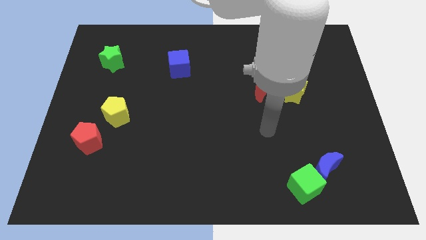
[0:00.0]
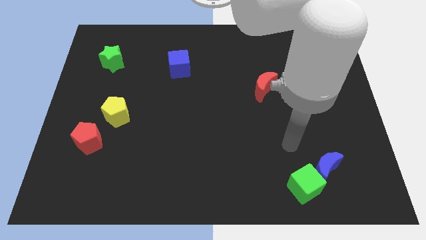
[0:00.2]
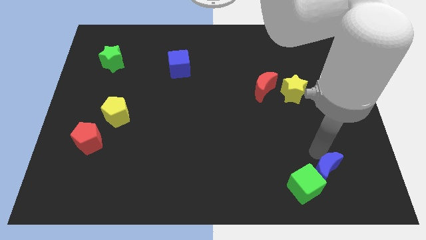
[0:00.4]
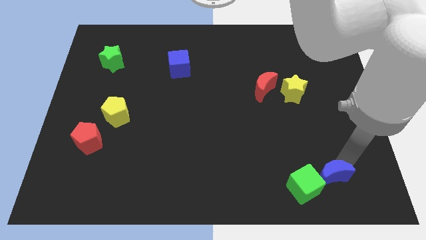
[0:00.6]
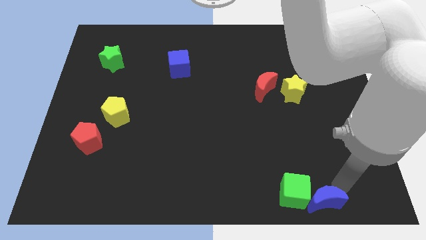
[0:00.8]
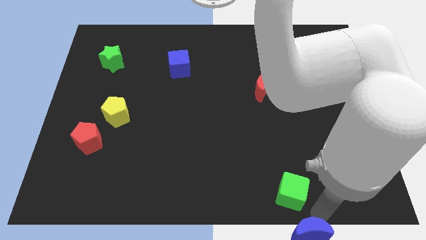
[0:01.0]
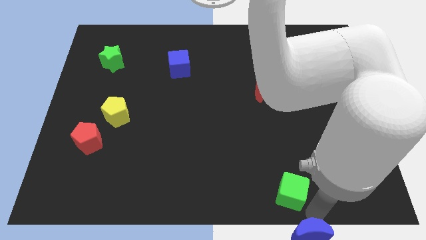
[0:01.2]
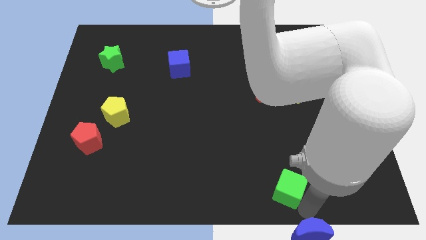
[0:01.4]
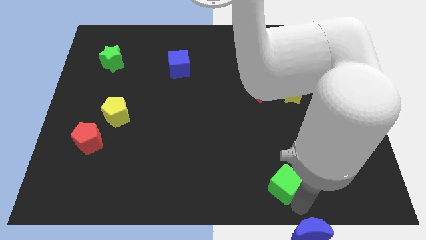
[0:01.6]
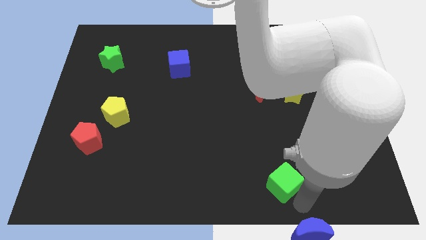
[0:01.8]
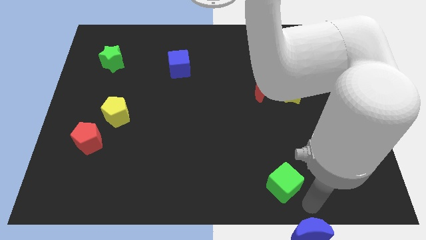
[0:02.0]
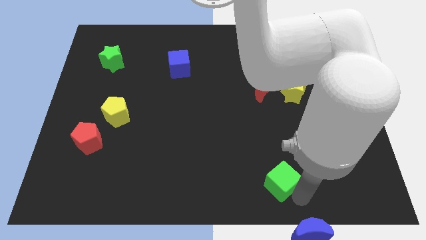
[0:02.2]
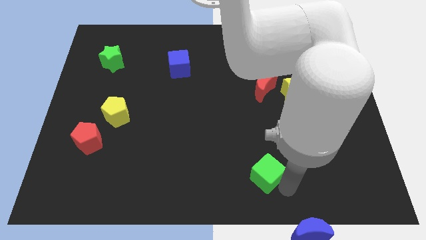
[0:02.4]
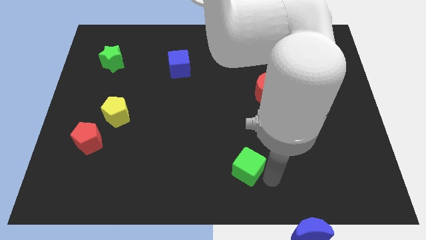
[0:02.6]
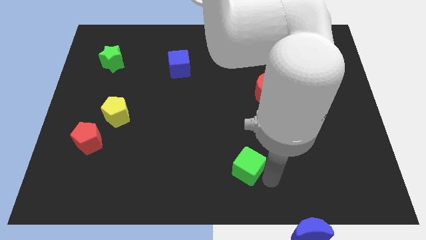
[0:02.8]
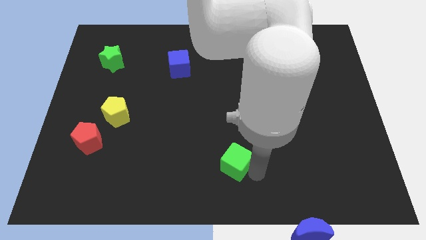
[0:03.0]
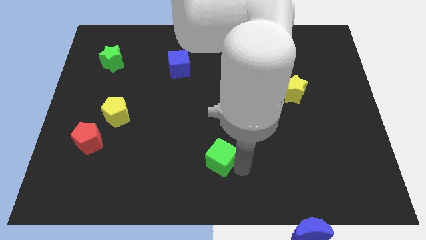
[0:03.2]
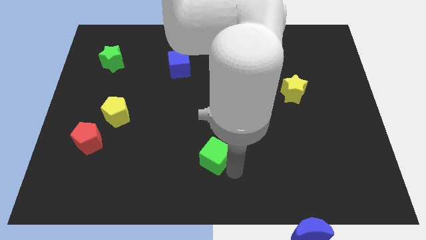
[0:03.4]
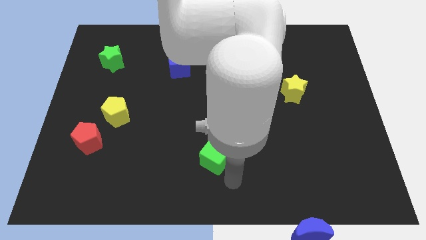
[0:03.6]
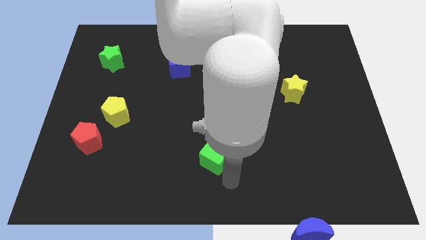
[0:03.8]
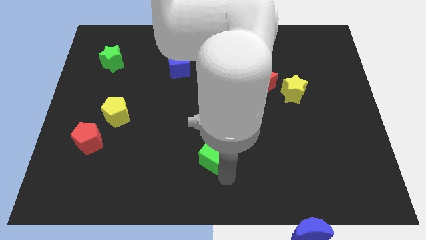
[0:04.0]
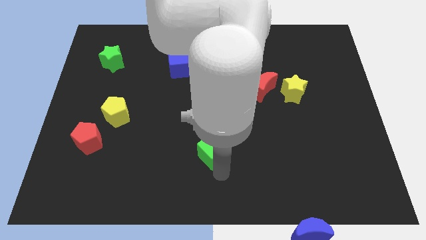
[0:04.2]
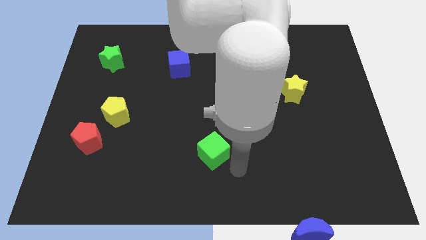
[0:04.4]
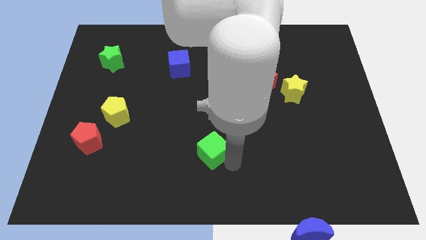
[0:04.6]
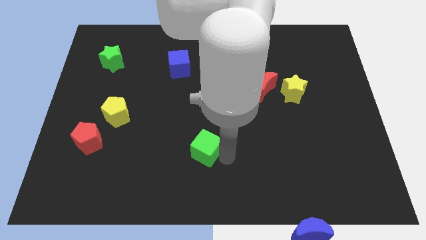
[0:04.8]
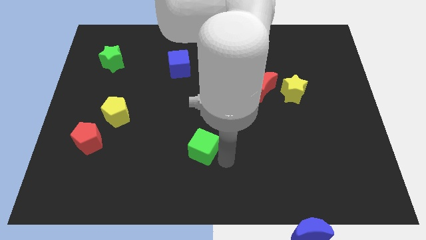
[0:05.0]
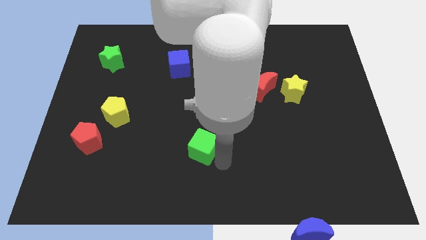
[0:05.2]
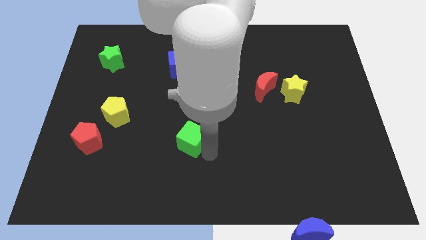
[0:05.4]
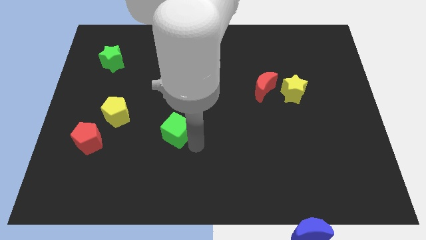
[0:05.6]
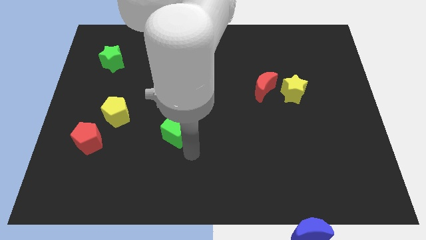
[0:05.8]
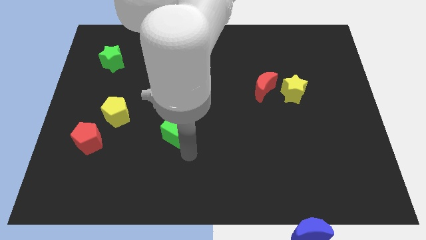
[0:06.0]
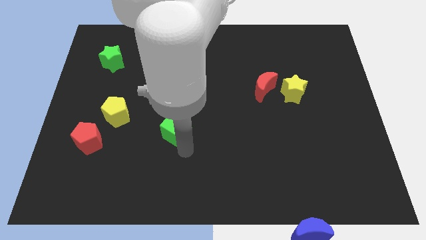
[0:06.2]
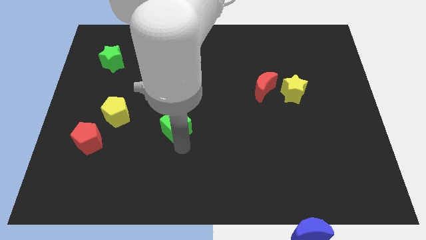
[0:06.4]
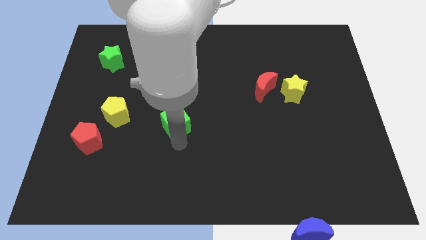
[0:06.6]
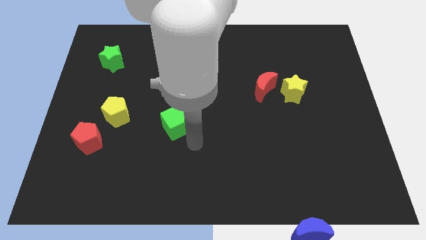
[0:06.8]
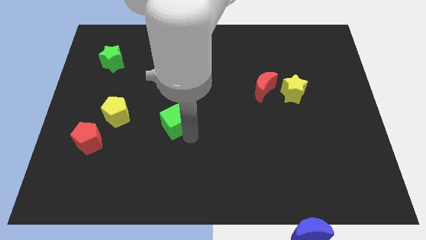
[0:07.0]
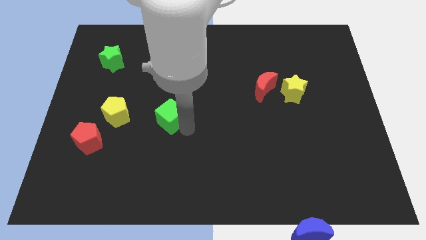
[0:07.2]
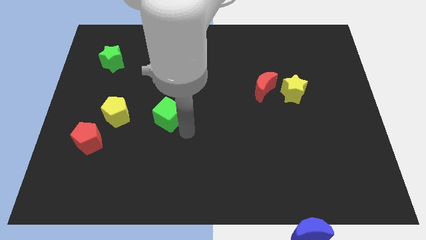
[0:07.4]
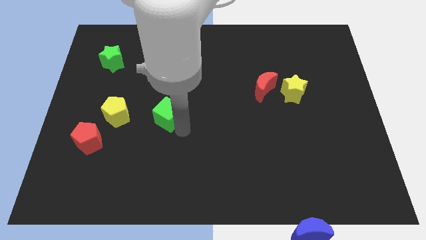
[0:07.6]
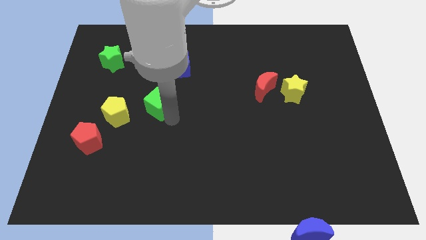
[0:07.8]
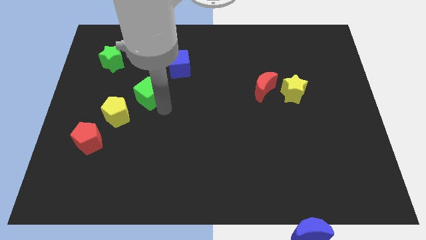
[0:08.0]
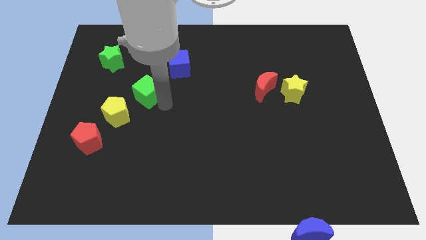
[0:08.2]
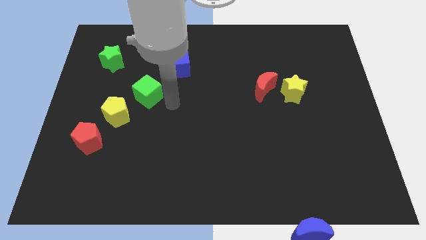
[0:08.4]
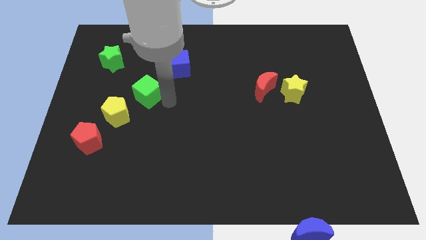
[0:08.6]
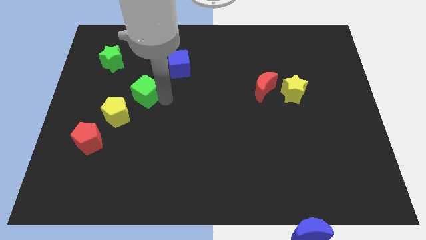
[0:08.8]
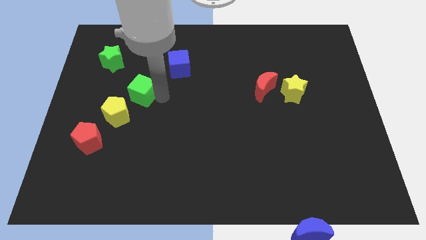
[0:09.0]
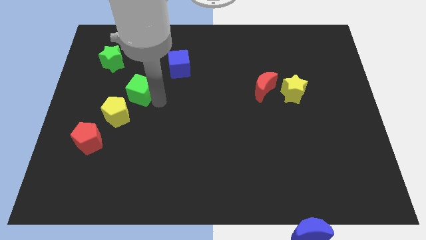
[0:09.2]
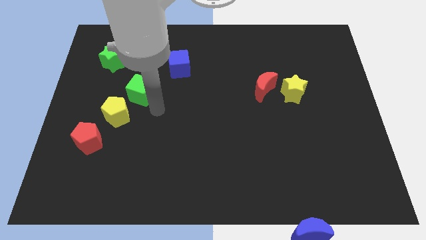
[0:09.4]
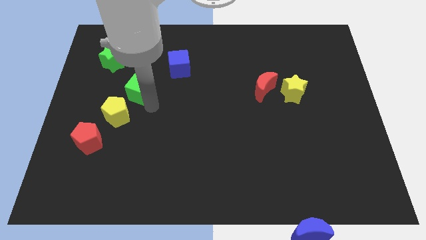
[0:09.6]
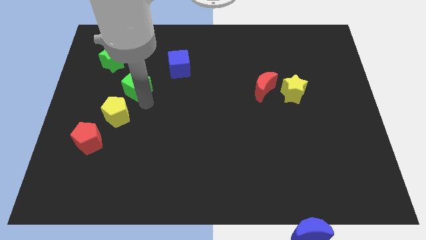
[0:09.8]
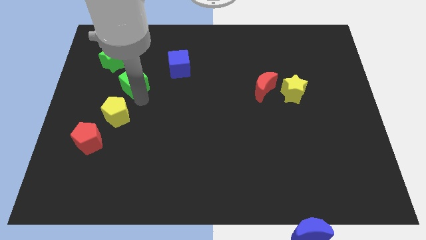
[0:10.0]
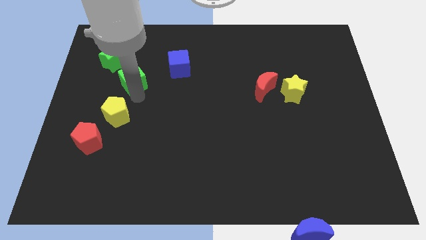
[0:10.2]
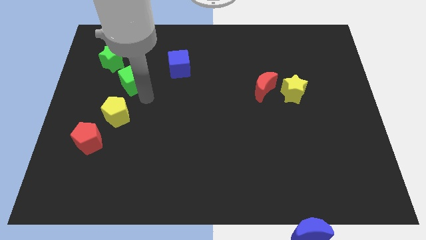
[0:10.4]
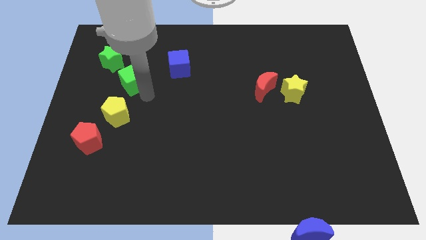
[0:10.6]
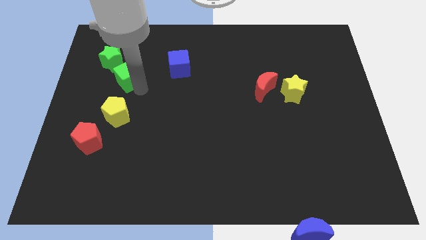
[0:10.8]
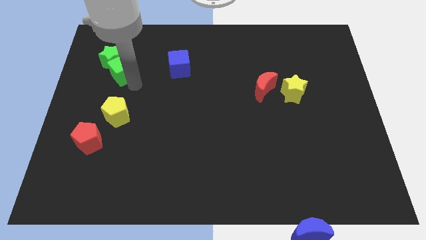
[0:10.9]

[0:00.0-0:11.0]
move the green cube close to the green star

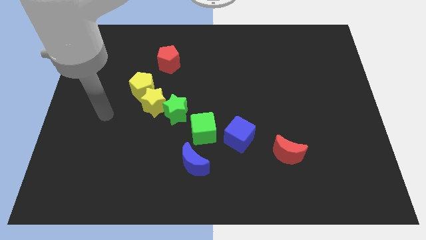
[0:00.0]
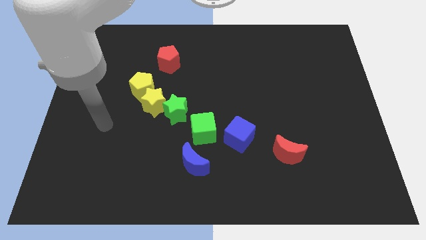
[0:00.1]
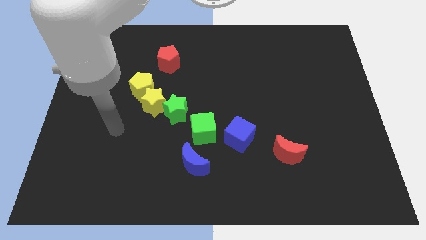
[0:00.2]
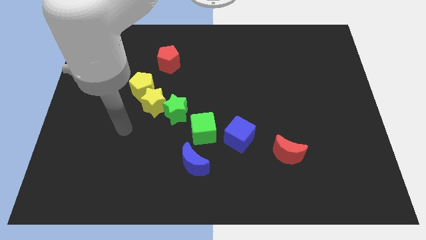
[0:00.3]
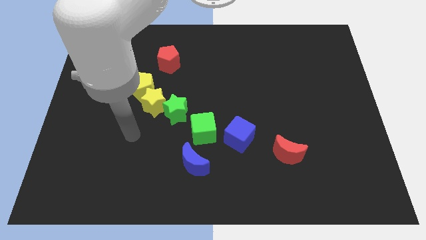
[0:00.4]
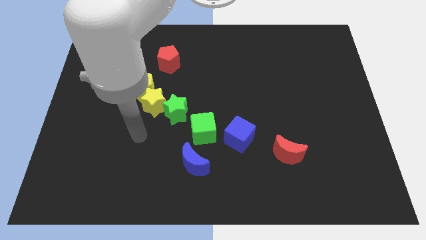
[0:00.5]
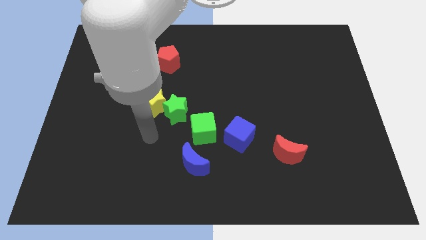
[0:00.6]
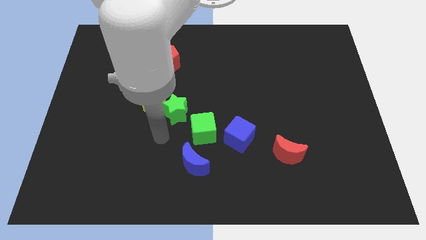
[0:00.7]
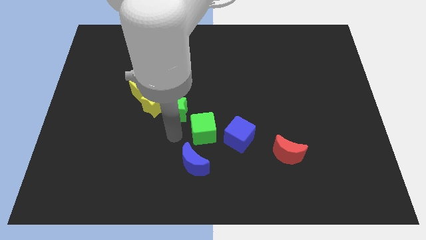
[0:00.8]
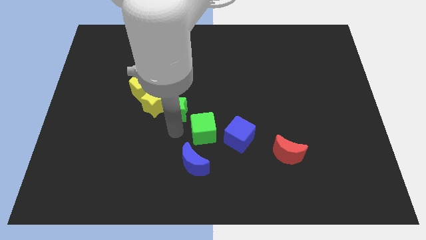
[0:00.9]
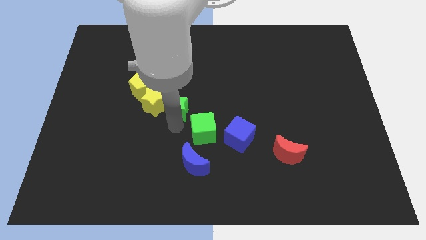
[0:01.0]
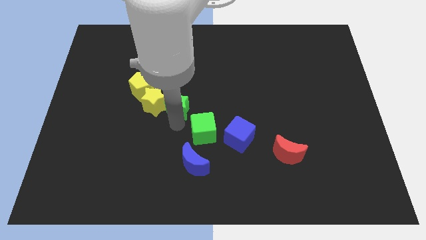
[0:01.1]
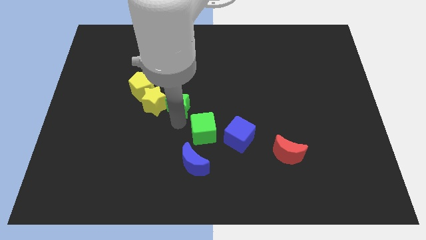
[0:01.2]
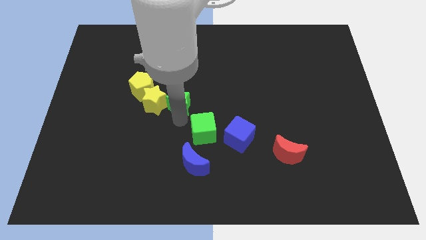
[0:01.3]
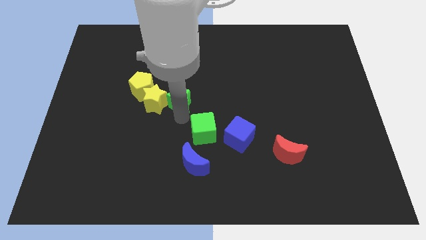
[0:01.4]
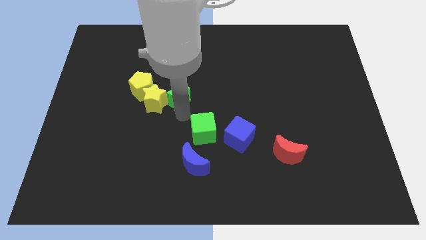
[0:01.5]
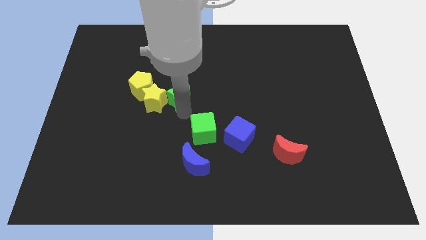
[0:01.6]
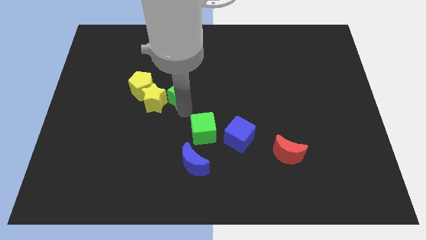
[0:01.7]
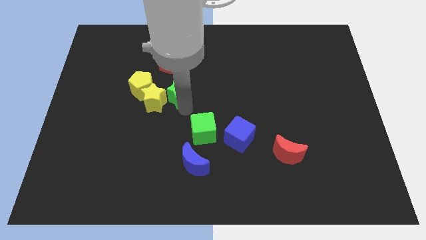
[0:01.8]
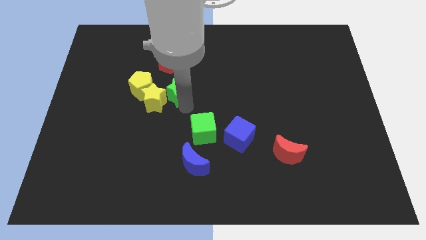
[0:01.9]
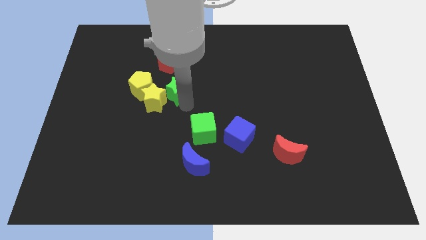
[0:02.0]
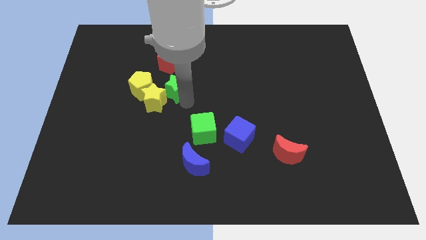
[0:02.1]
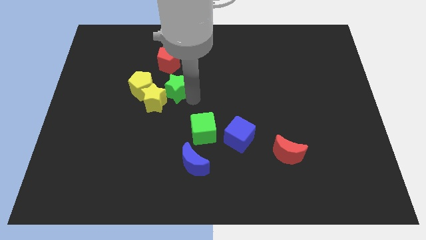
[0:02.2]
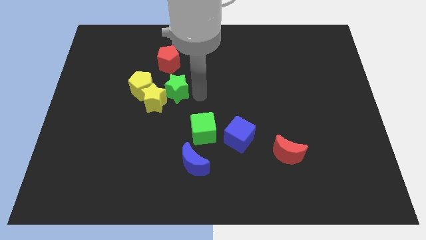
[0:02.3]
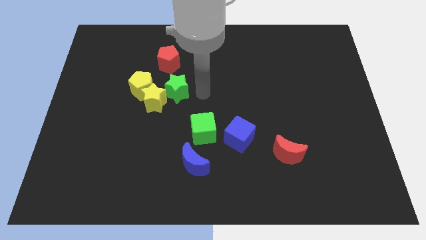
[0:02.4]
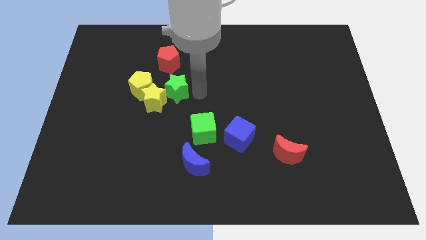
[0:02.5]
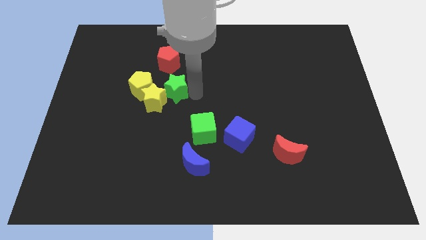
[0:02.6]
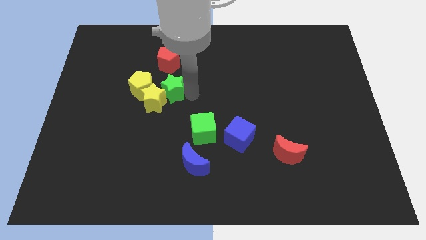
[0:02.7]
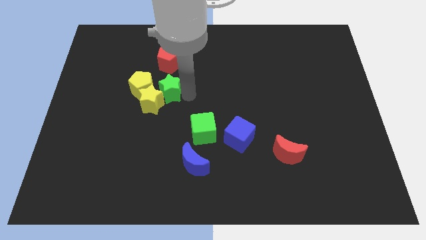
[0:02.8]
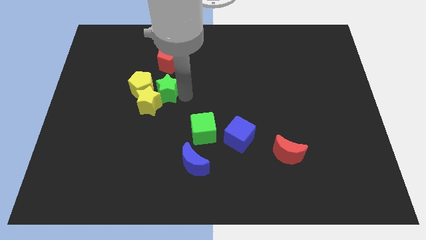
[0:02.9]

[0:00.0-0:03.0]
put the green star towards the yellow pentagon
